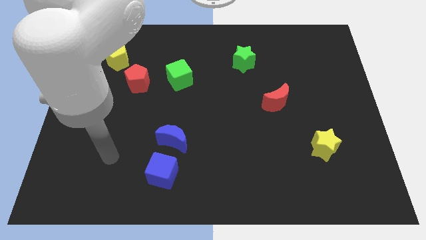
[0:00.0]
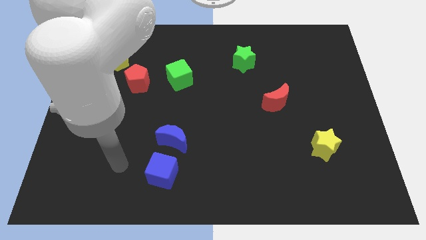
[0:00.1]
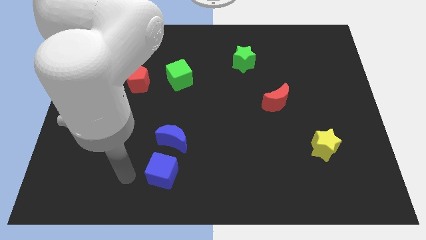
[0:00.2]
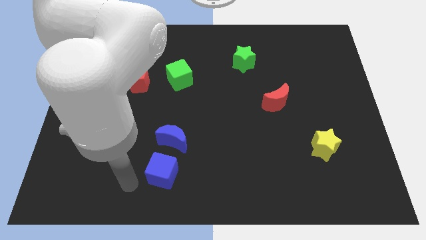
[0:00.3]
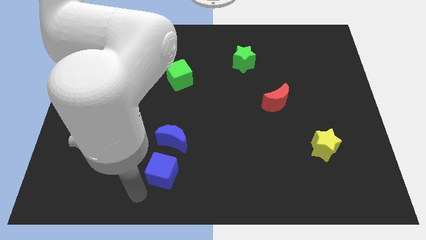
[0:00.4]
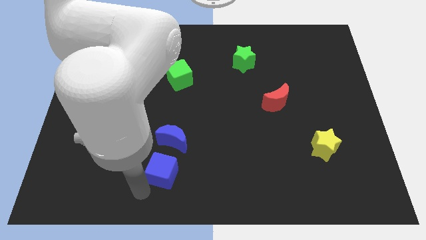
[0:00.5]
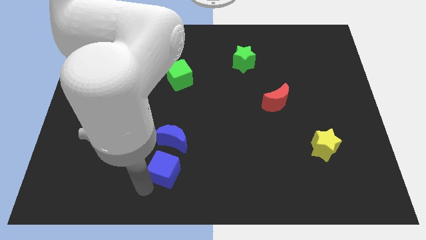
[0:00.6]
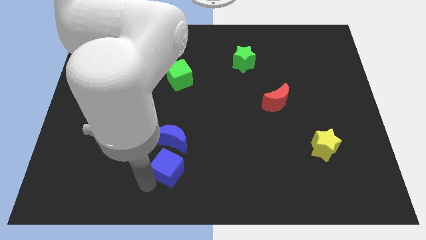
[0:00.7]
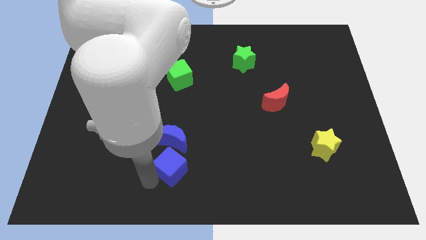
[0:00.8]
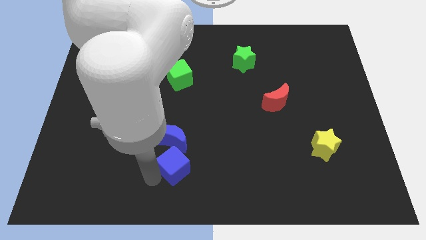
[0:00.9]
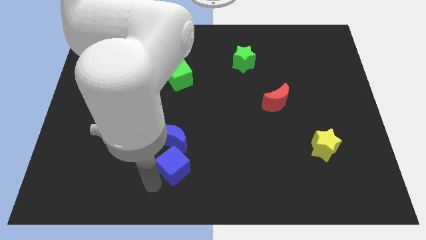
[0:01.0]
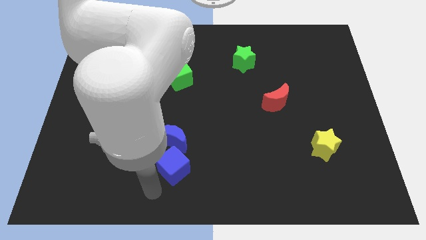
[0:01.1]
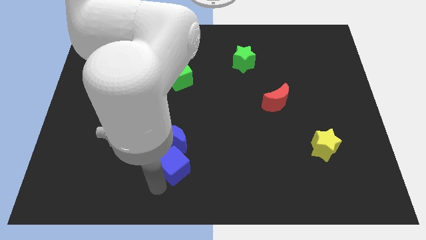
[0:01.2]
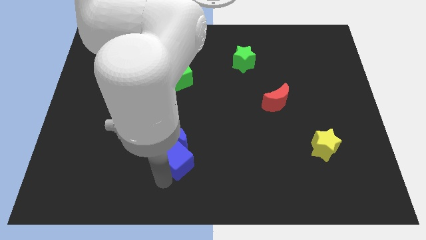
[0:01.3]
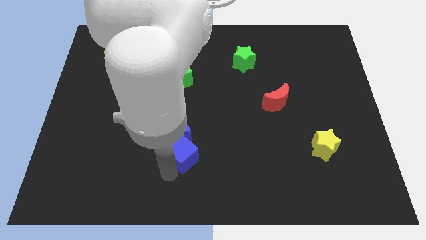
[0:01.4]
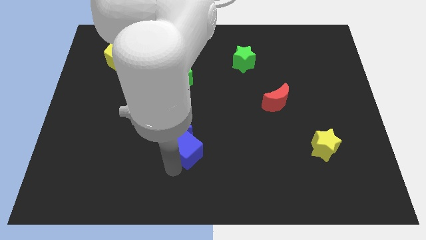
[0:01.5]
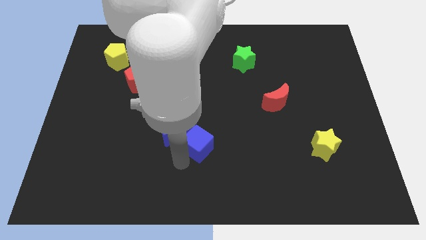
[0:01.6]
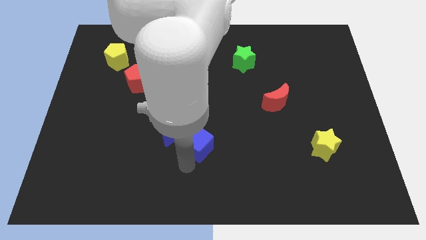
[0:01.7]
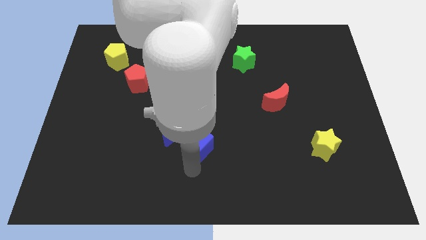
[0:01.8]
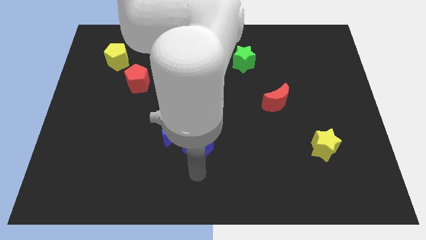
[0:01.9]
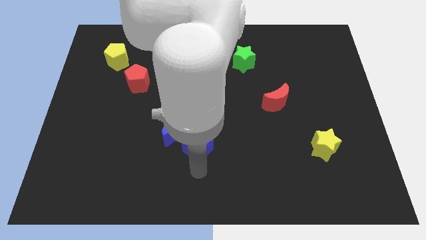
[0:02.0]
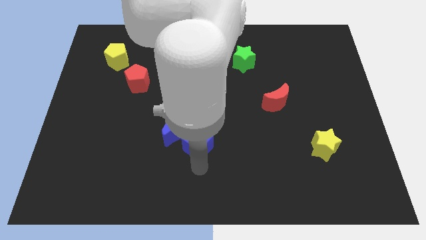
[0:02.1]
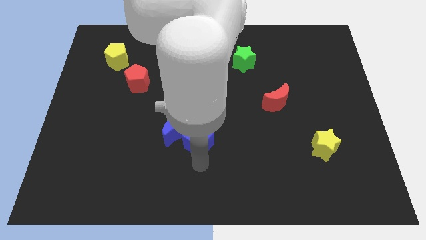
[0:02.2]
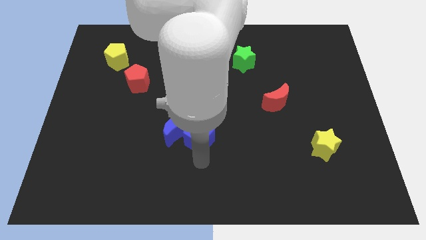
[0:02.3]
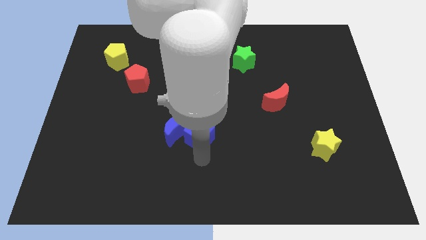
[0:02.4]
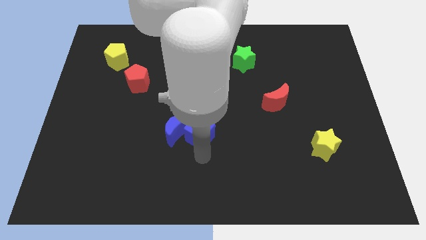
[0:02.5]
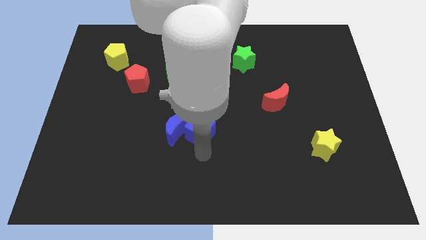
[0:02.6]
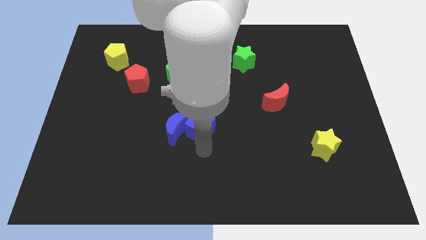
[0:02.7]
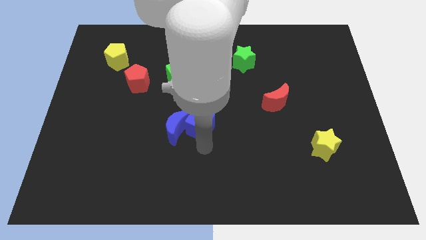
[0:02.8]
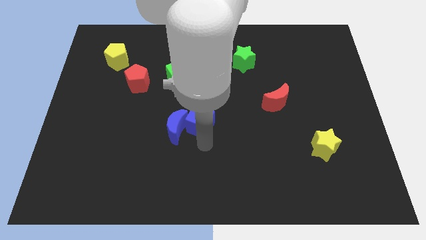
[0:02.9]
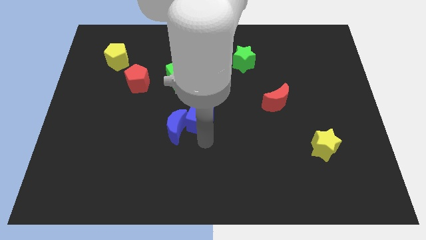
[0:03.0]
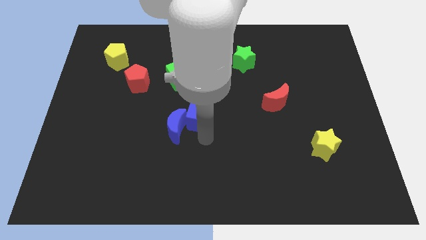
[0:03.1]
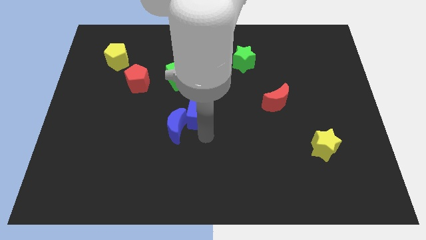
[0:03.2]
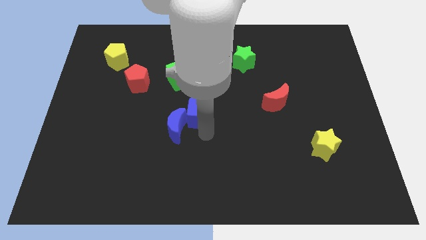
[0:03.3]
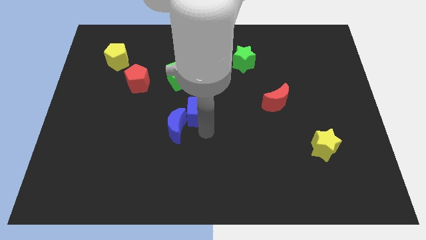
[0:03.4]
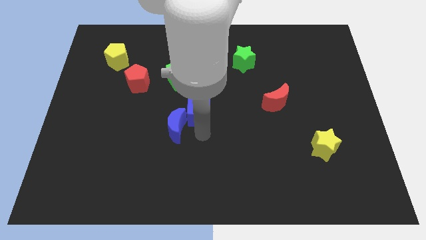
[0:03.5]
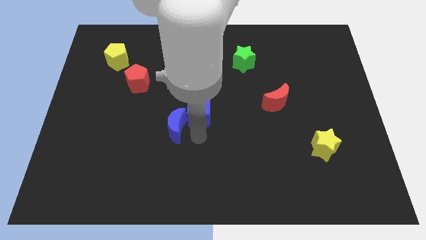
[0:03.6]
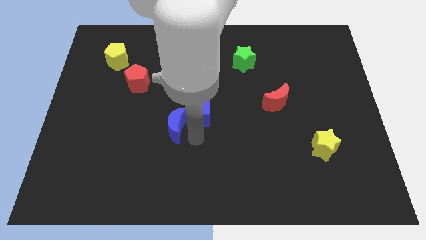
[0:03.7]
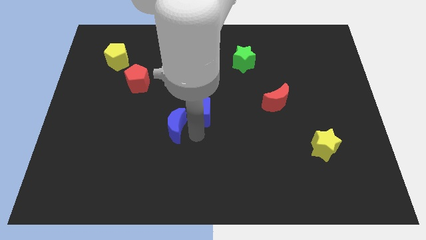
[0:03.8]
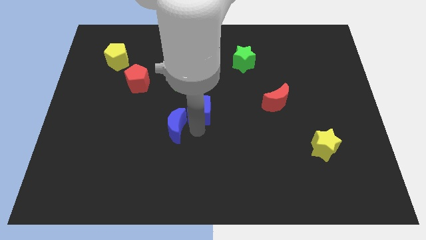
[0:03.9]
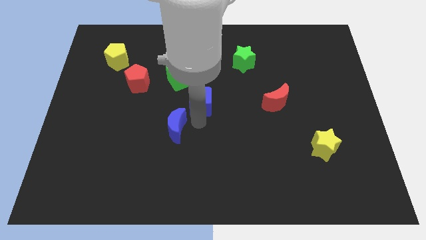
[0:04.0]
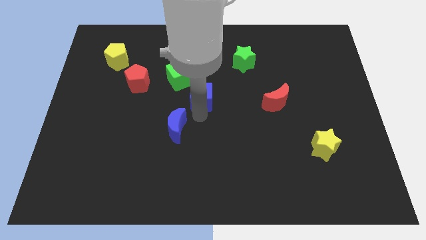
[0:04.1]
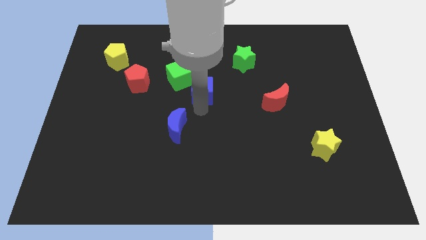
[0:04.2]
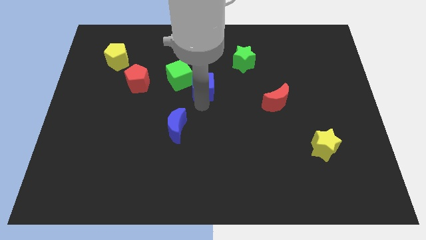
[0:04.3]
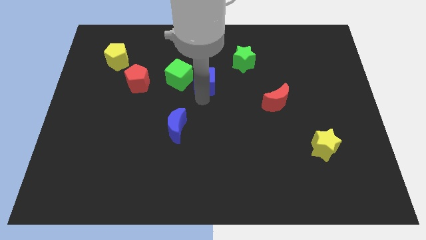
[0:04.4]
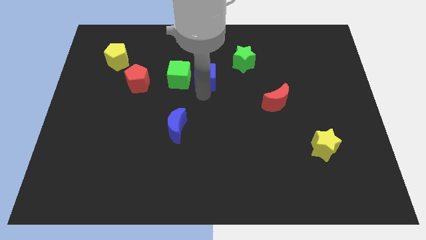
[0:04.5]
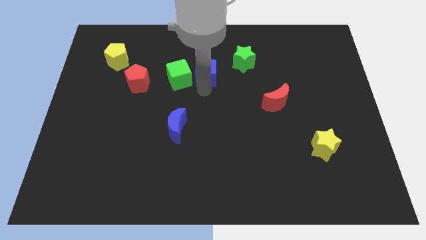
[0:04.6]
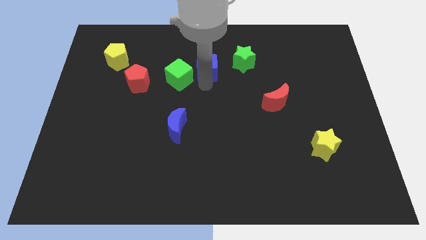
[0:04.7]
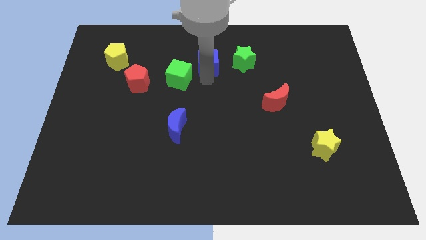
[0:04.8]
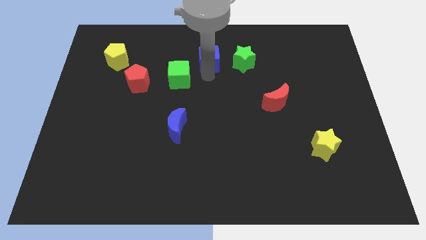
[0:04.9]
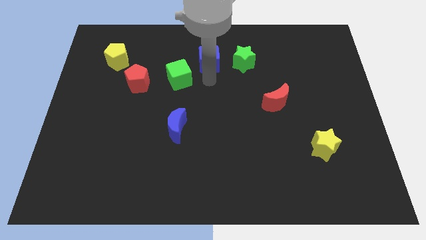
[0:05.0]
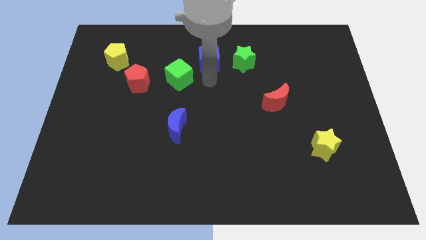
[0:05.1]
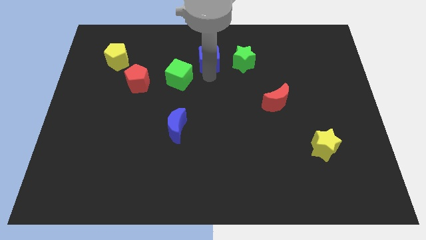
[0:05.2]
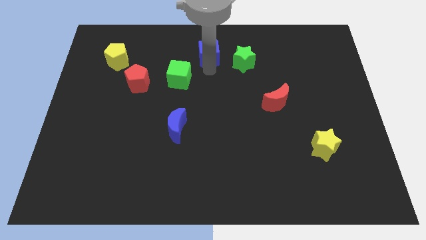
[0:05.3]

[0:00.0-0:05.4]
put the blue cube to the top side

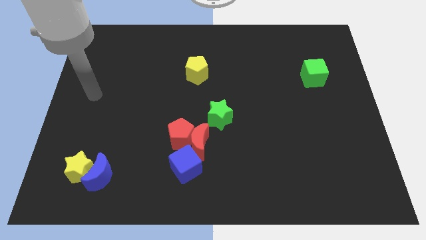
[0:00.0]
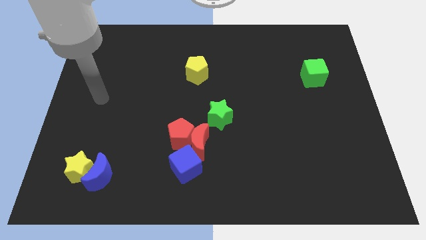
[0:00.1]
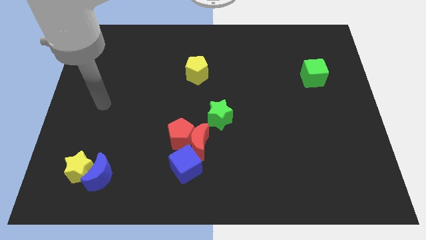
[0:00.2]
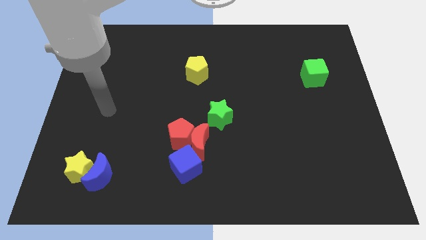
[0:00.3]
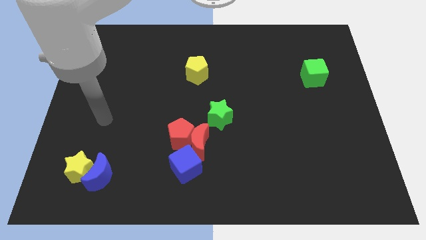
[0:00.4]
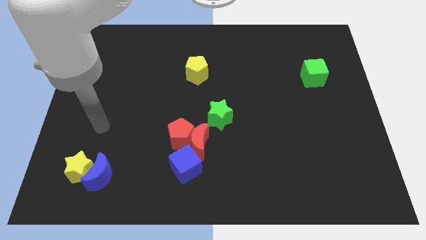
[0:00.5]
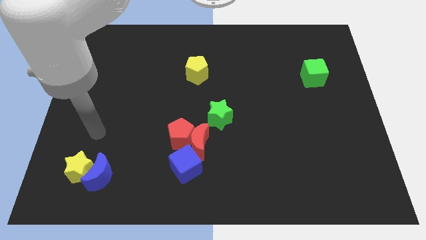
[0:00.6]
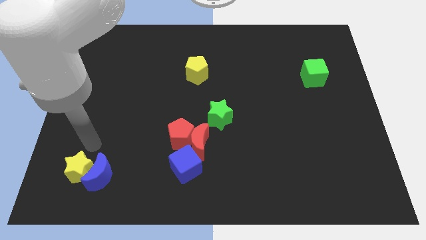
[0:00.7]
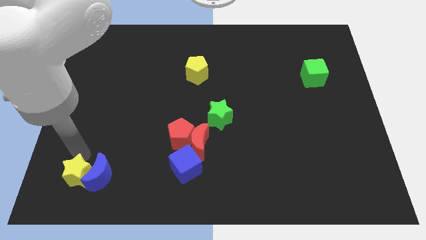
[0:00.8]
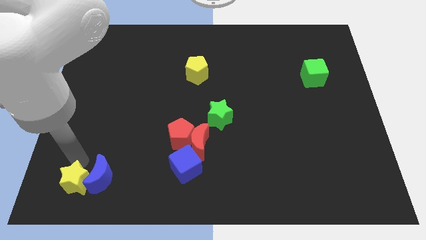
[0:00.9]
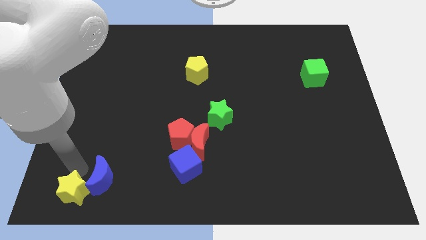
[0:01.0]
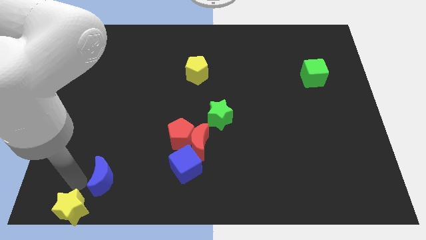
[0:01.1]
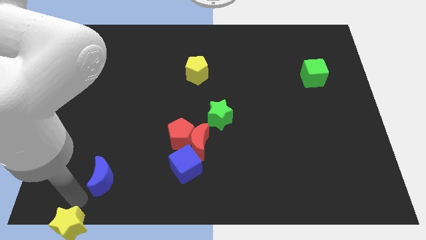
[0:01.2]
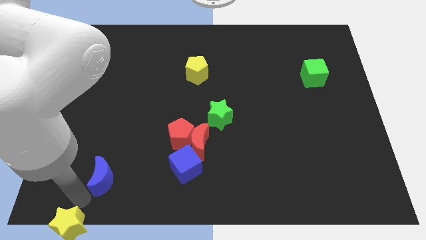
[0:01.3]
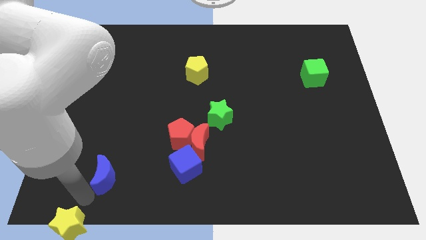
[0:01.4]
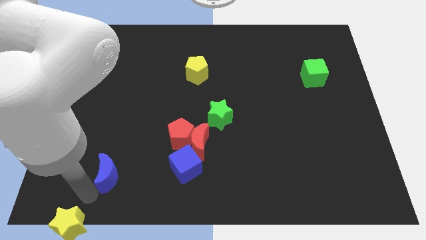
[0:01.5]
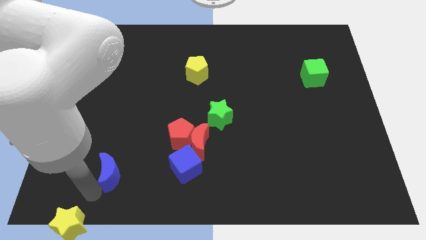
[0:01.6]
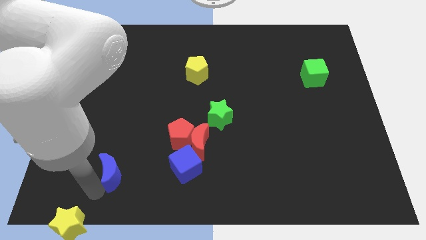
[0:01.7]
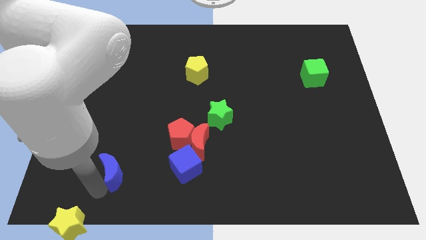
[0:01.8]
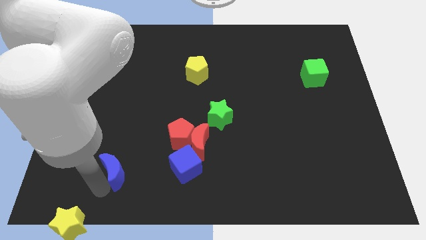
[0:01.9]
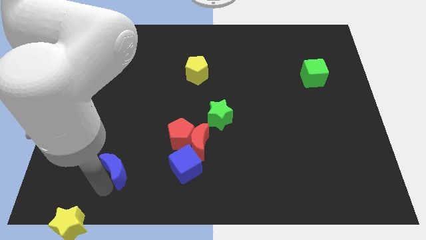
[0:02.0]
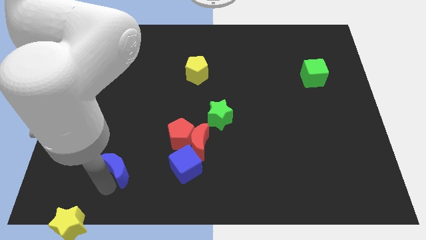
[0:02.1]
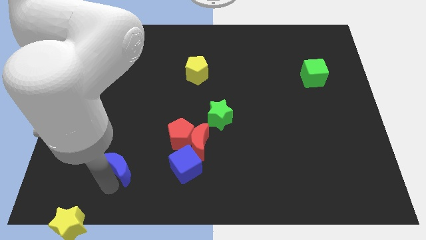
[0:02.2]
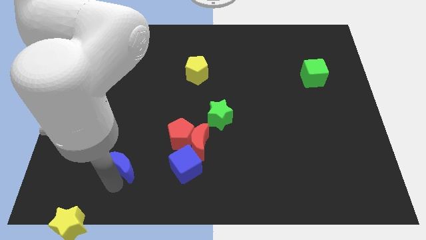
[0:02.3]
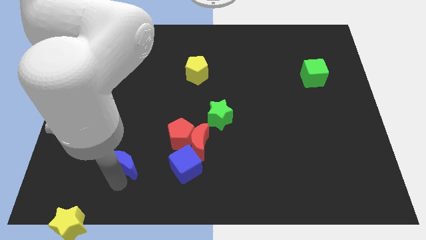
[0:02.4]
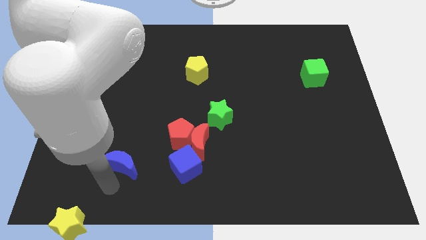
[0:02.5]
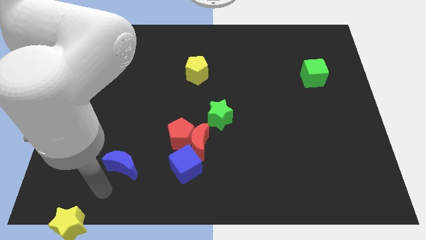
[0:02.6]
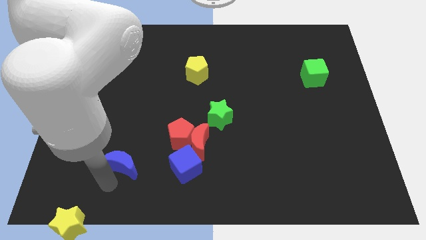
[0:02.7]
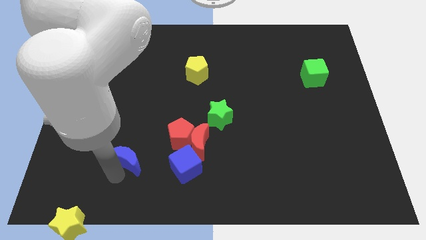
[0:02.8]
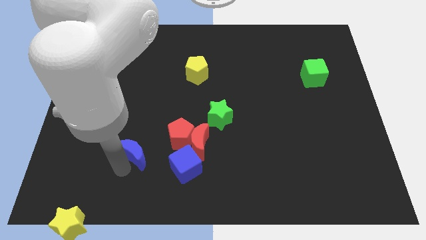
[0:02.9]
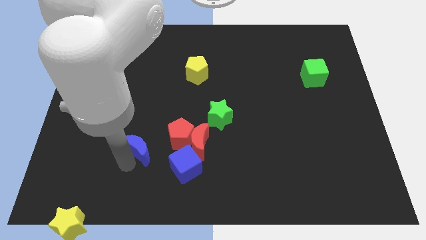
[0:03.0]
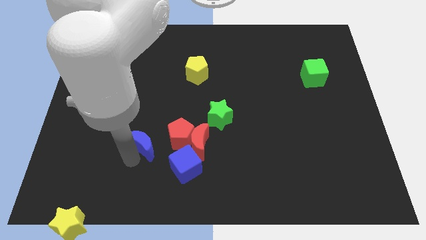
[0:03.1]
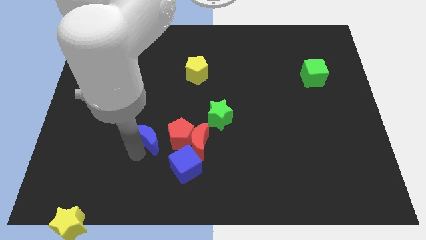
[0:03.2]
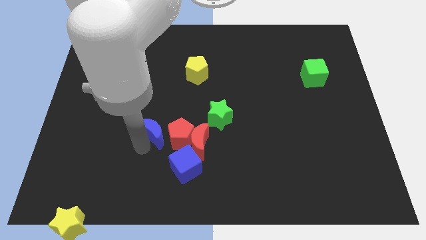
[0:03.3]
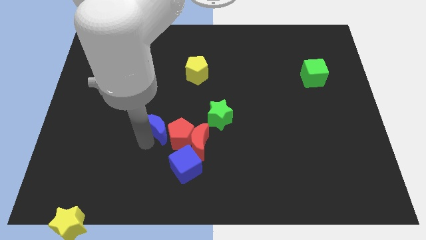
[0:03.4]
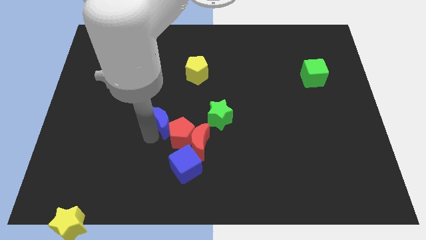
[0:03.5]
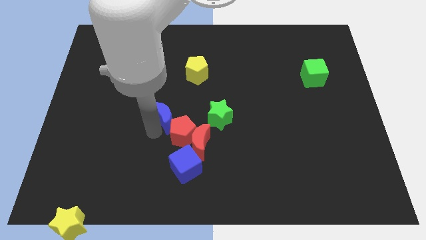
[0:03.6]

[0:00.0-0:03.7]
slide the blue moon to the center of the board
